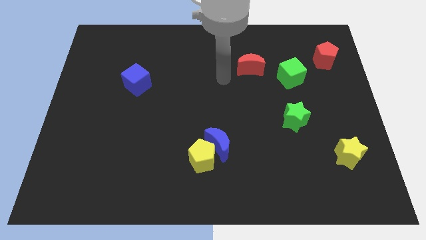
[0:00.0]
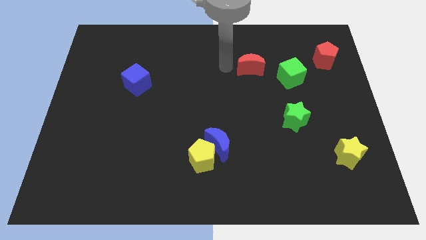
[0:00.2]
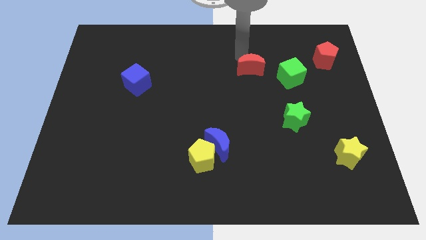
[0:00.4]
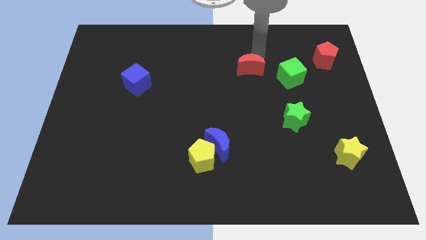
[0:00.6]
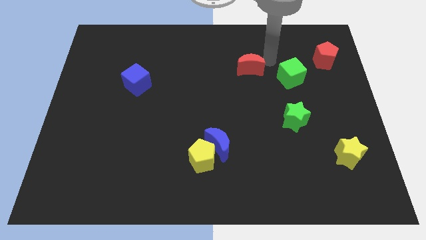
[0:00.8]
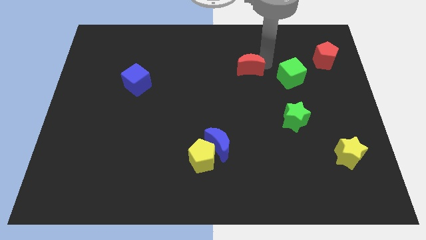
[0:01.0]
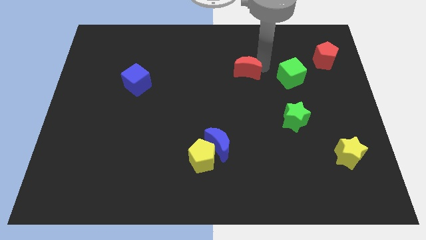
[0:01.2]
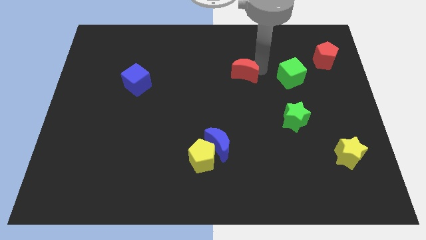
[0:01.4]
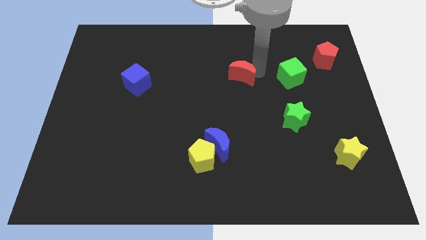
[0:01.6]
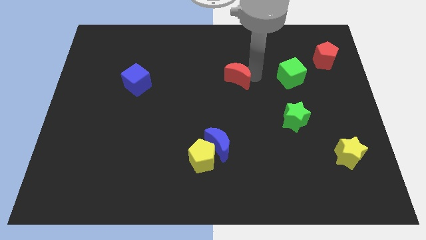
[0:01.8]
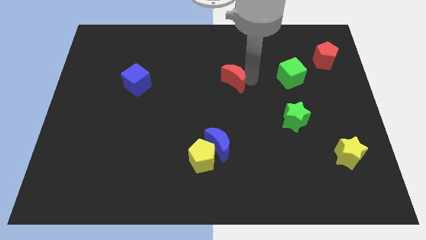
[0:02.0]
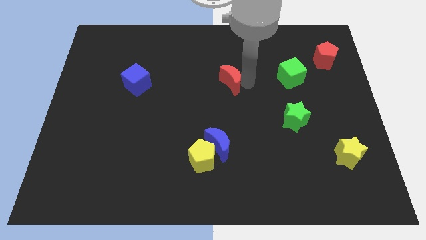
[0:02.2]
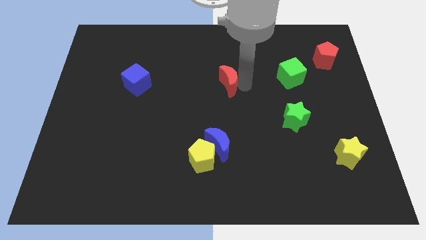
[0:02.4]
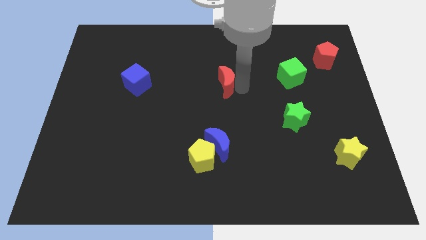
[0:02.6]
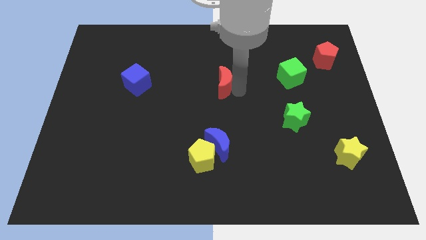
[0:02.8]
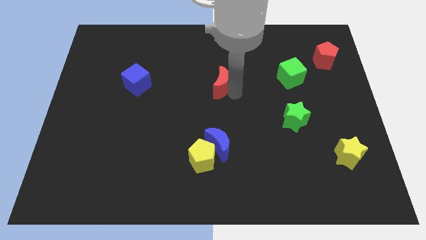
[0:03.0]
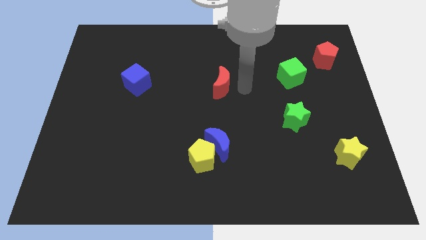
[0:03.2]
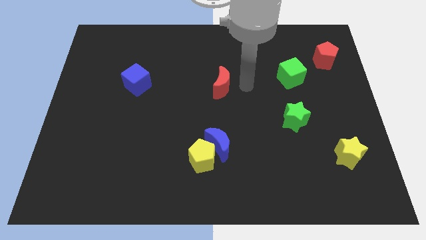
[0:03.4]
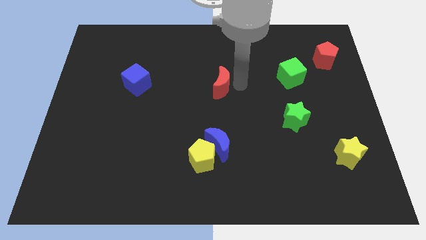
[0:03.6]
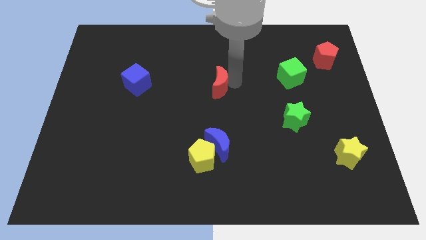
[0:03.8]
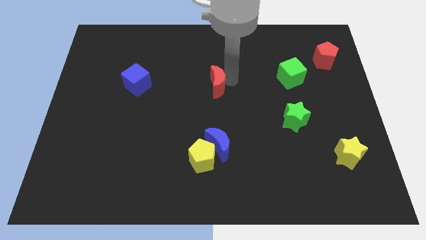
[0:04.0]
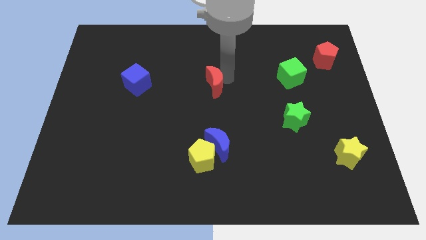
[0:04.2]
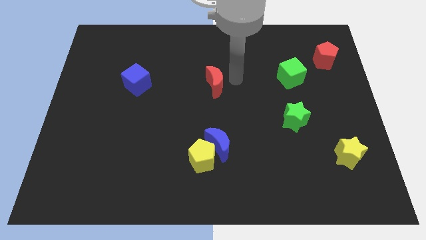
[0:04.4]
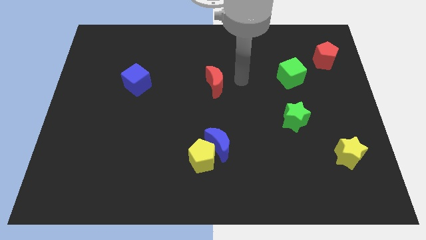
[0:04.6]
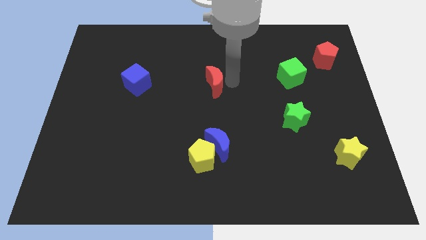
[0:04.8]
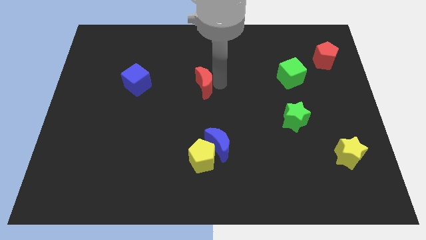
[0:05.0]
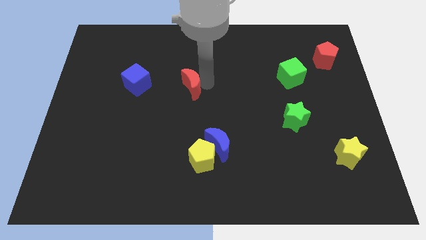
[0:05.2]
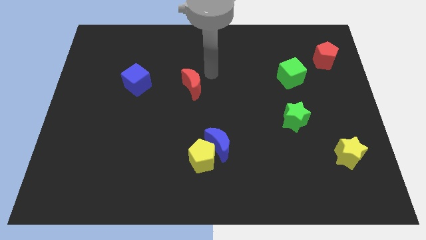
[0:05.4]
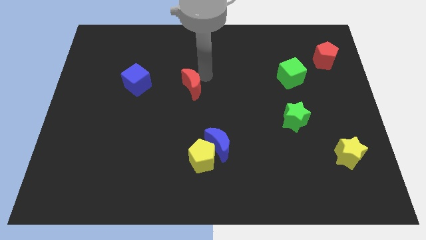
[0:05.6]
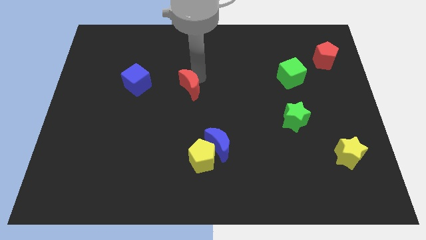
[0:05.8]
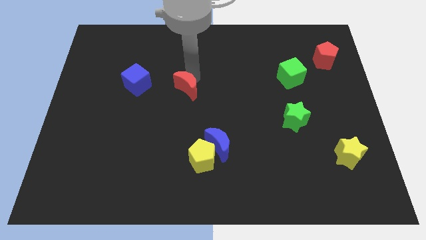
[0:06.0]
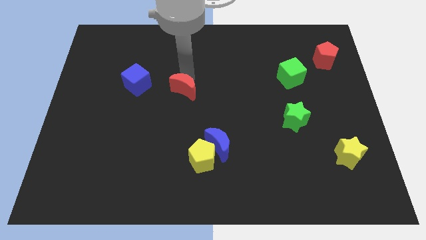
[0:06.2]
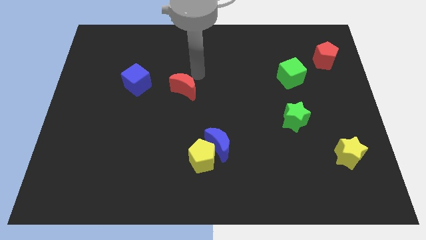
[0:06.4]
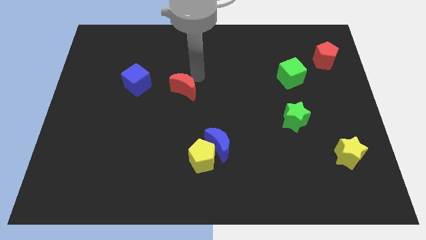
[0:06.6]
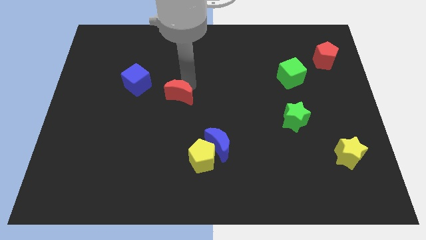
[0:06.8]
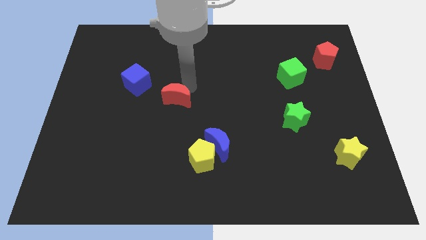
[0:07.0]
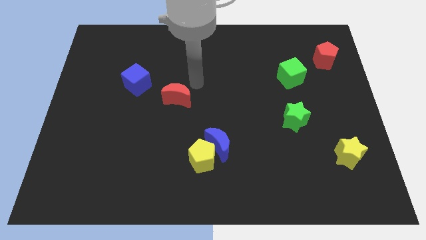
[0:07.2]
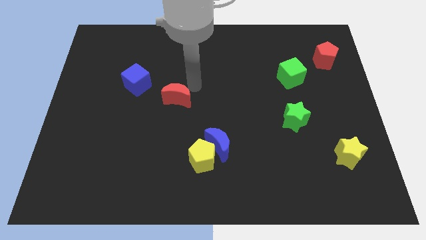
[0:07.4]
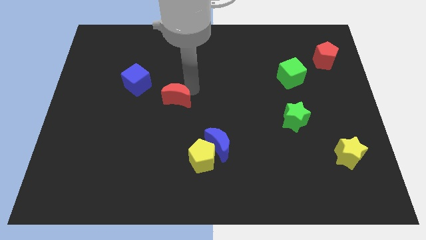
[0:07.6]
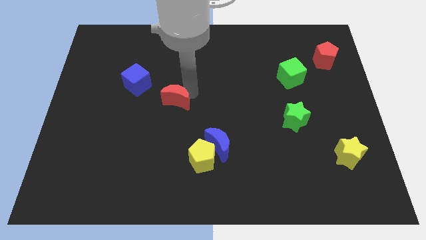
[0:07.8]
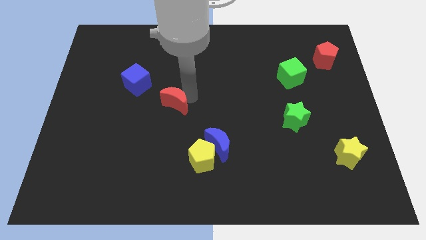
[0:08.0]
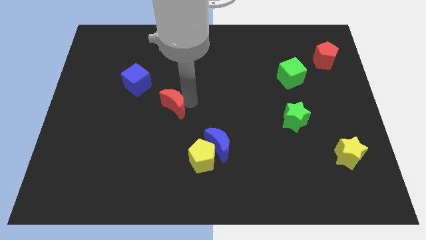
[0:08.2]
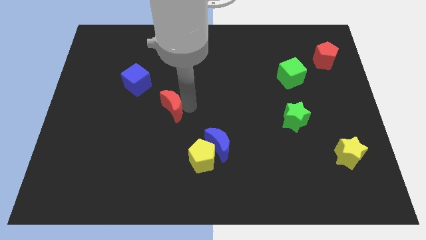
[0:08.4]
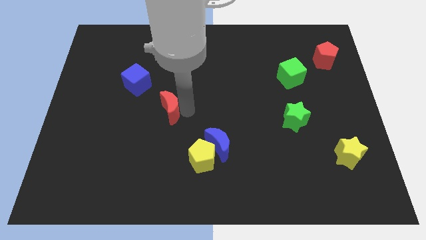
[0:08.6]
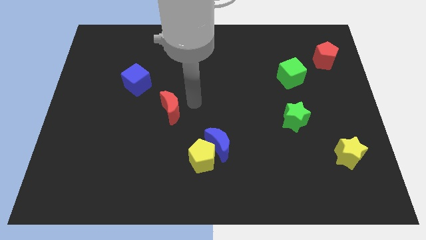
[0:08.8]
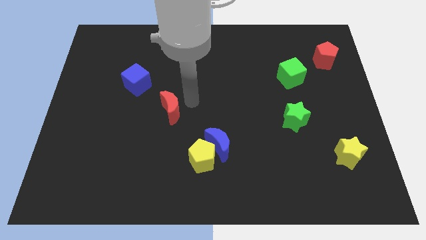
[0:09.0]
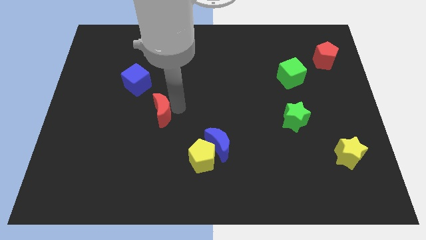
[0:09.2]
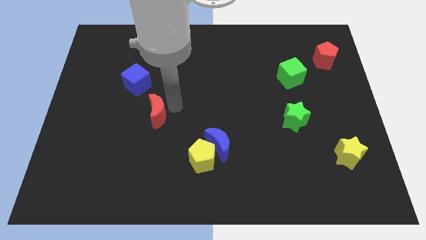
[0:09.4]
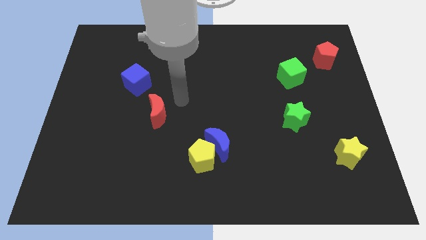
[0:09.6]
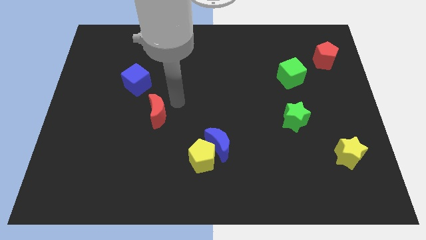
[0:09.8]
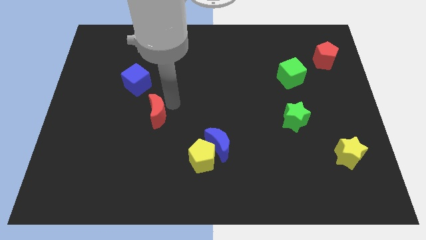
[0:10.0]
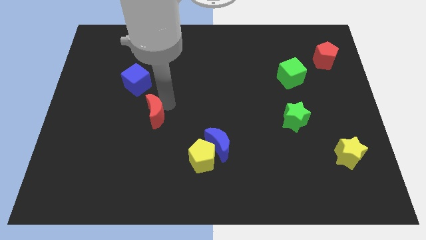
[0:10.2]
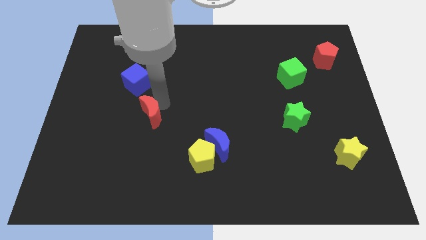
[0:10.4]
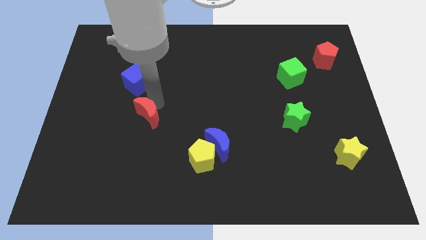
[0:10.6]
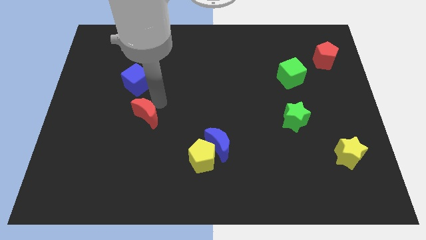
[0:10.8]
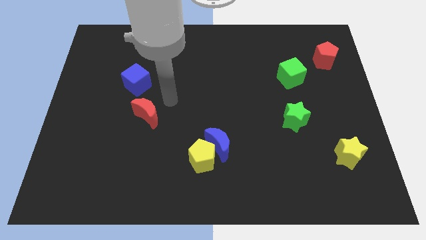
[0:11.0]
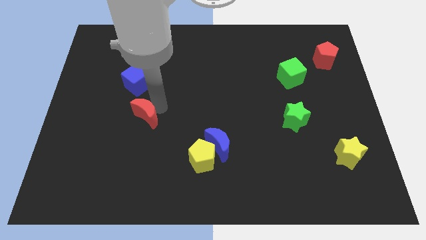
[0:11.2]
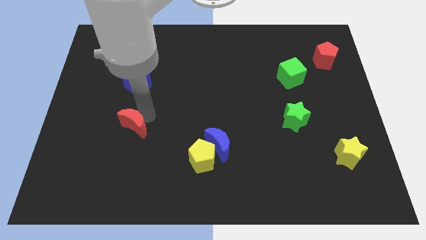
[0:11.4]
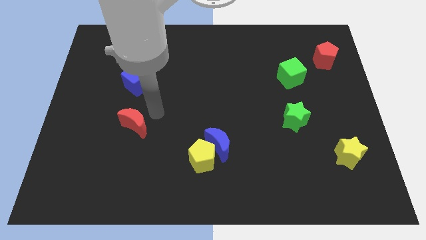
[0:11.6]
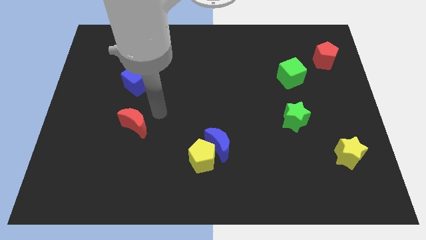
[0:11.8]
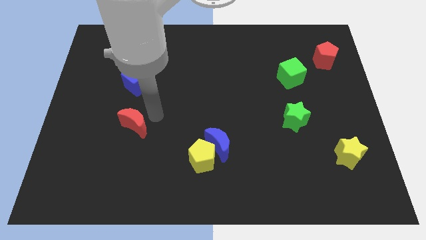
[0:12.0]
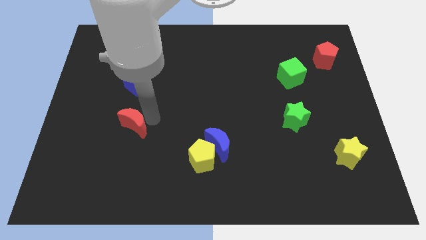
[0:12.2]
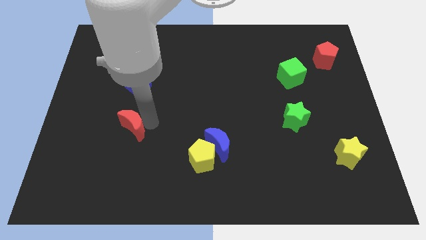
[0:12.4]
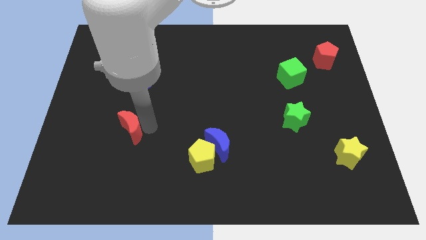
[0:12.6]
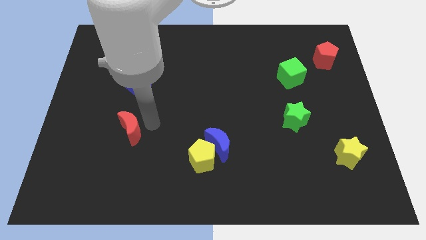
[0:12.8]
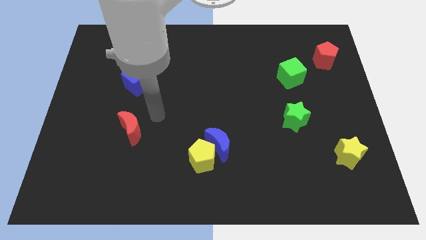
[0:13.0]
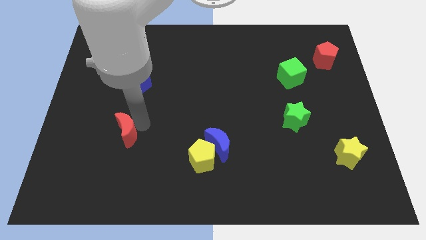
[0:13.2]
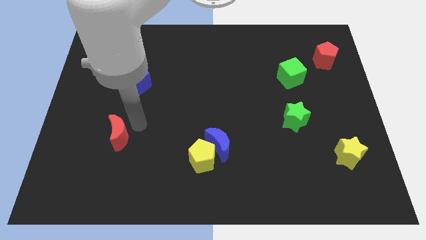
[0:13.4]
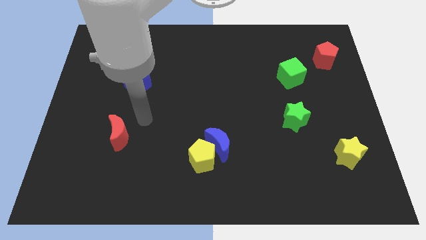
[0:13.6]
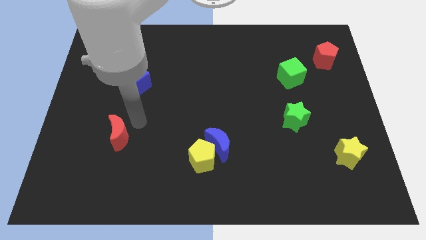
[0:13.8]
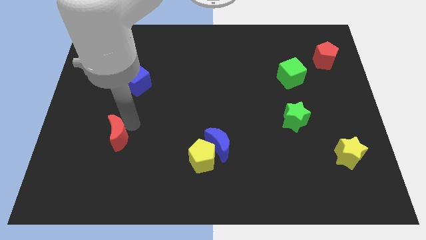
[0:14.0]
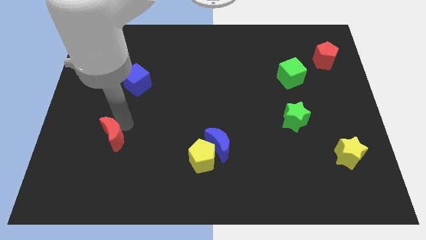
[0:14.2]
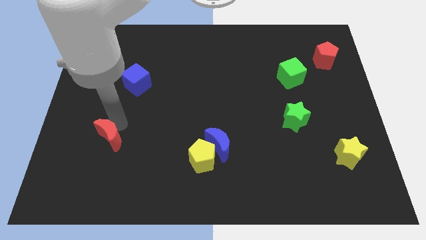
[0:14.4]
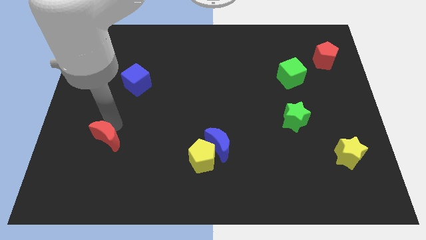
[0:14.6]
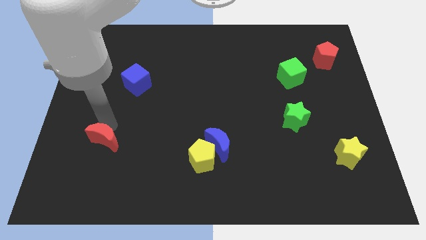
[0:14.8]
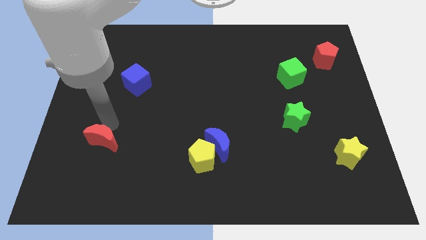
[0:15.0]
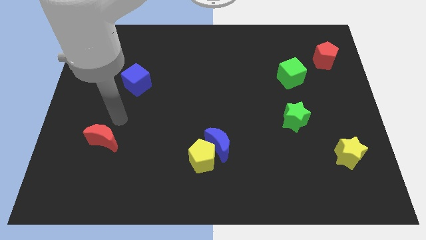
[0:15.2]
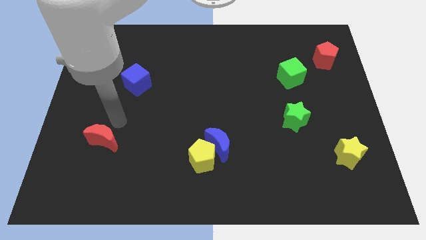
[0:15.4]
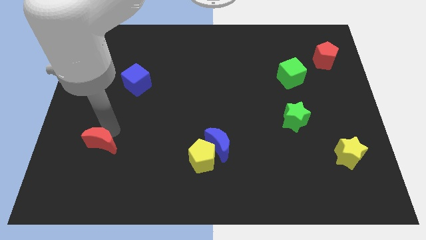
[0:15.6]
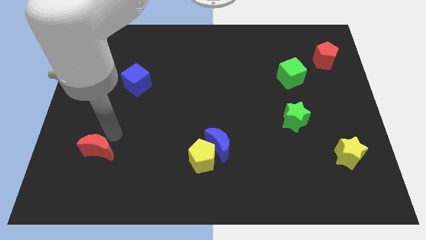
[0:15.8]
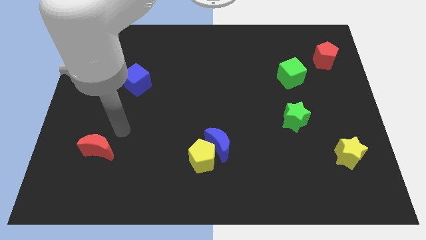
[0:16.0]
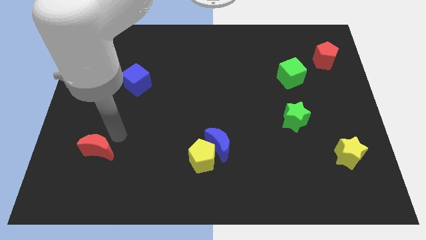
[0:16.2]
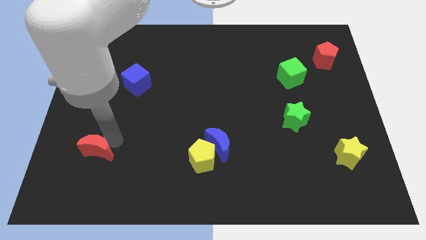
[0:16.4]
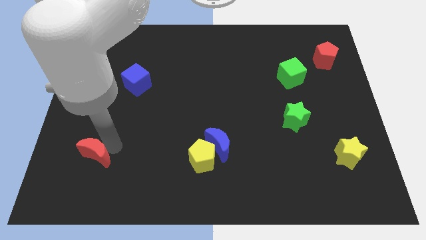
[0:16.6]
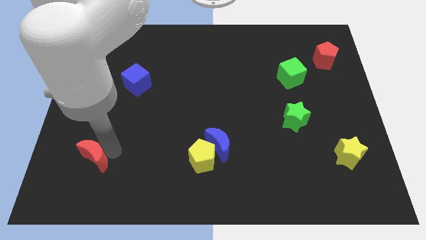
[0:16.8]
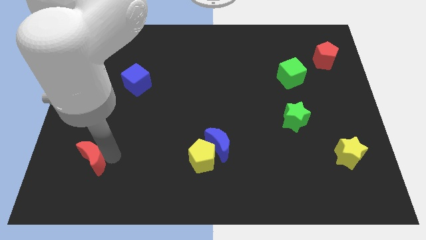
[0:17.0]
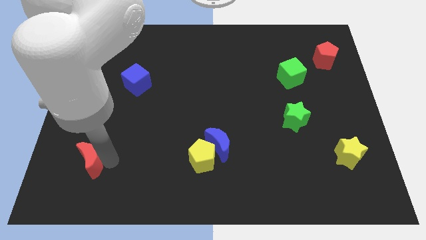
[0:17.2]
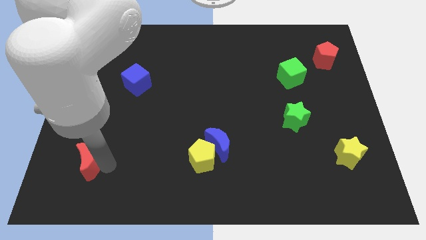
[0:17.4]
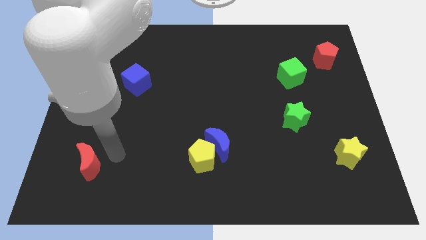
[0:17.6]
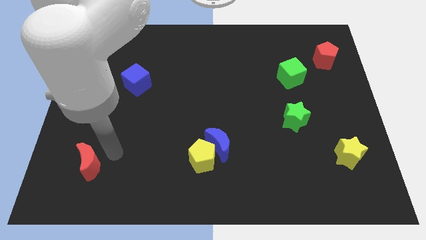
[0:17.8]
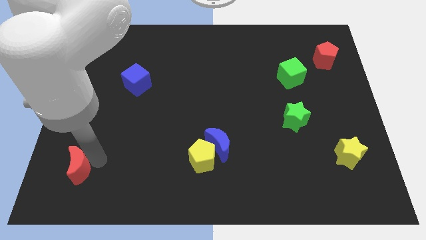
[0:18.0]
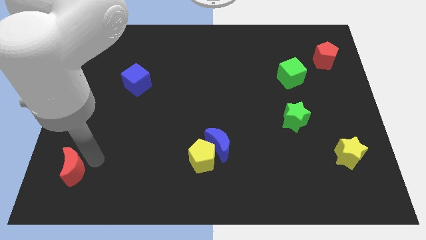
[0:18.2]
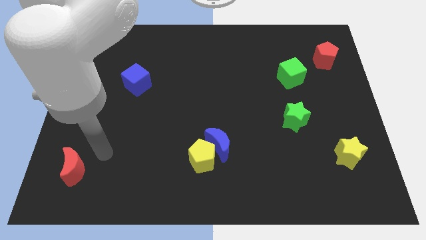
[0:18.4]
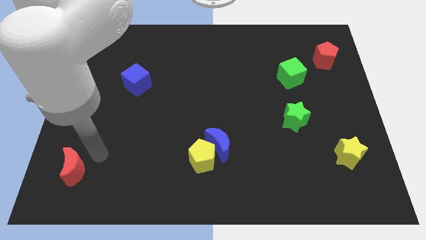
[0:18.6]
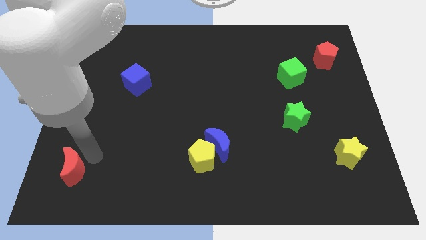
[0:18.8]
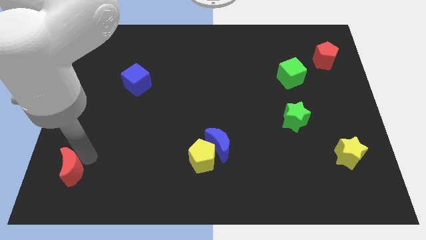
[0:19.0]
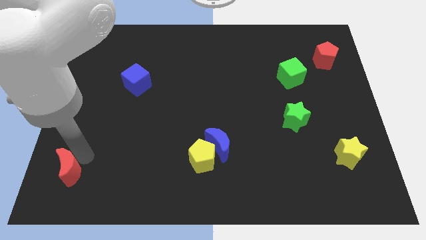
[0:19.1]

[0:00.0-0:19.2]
put the red moon to the lower left corner
